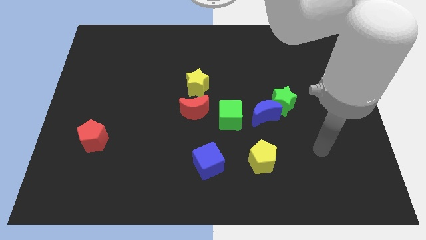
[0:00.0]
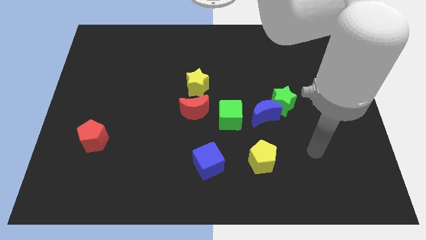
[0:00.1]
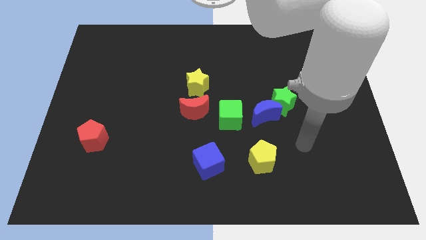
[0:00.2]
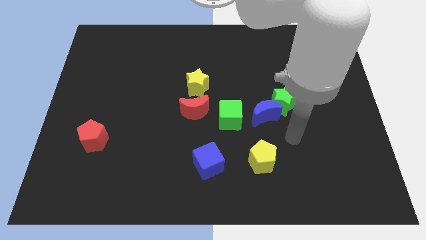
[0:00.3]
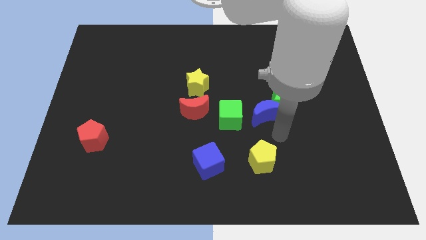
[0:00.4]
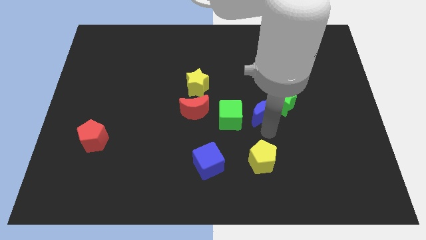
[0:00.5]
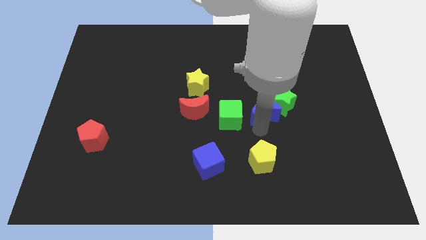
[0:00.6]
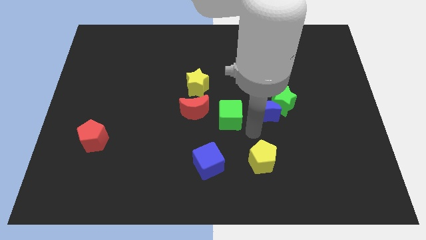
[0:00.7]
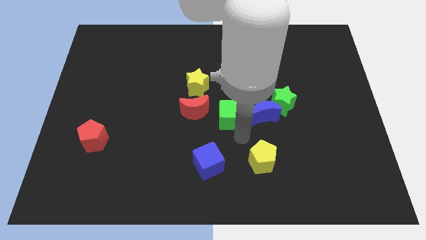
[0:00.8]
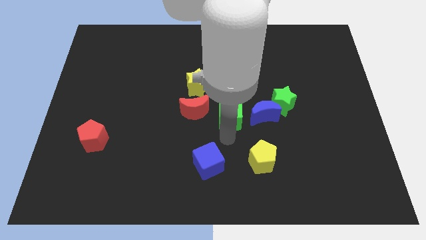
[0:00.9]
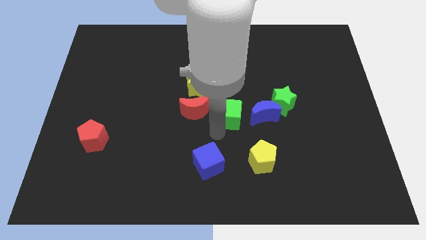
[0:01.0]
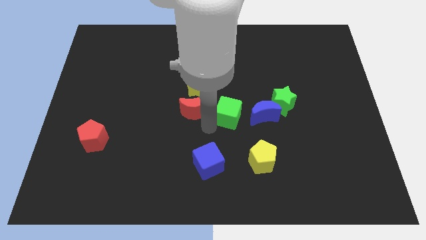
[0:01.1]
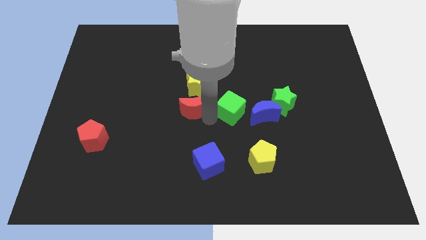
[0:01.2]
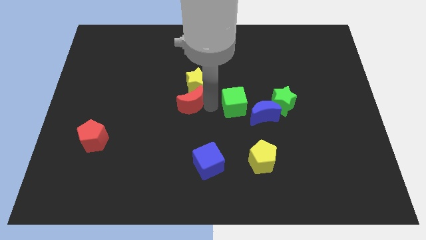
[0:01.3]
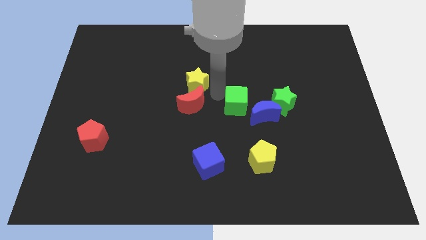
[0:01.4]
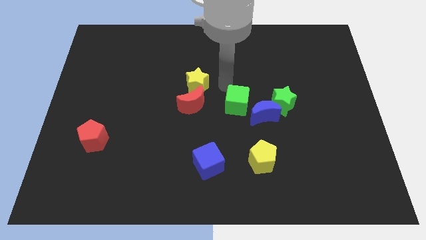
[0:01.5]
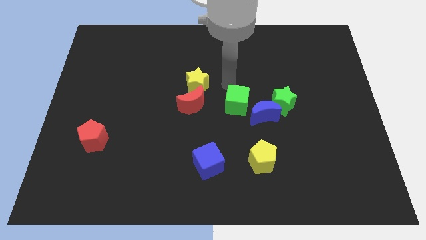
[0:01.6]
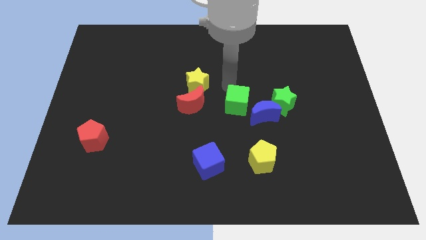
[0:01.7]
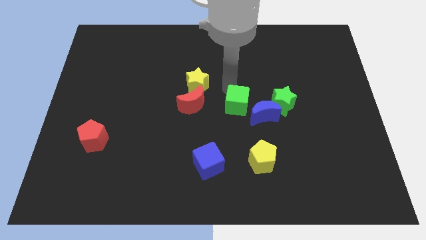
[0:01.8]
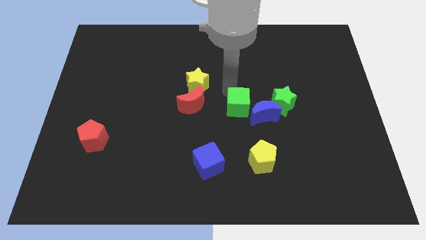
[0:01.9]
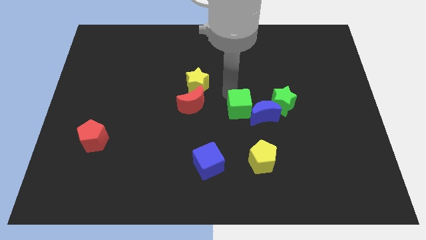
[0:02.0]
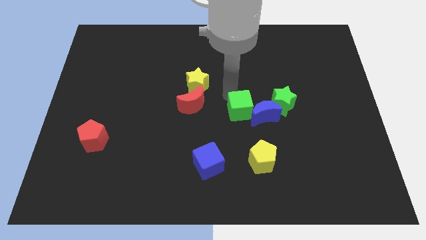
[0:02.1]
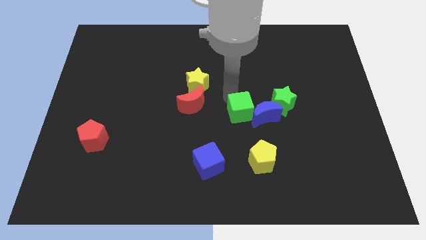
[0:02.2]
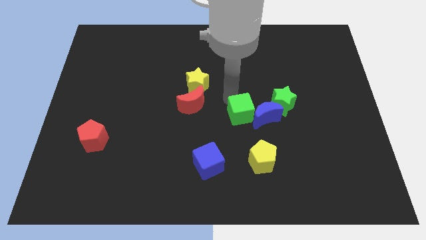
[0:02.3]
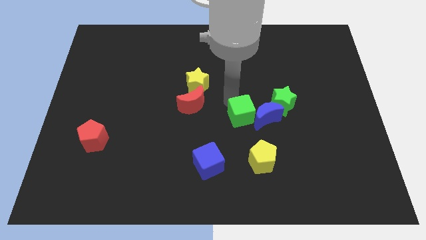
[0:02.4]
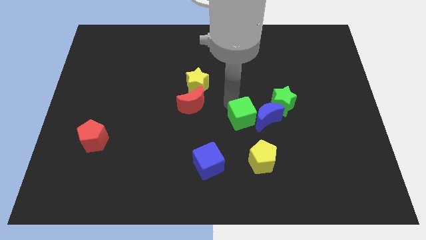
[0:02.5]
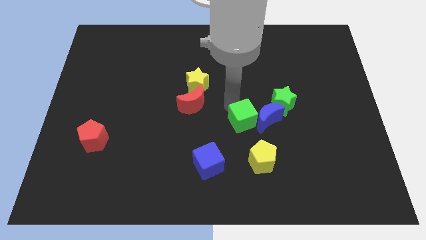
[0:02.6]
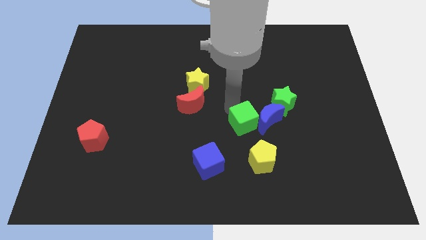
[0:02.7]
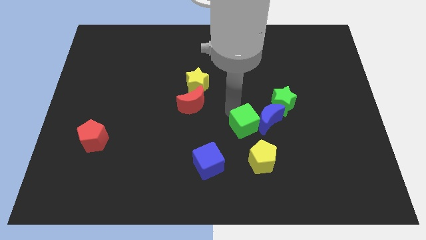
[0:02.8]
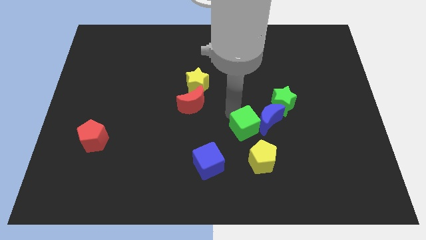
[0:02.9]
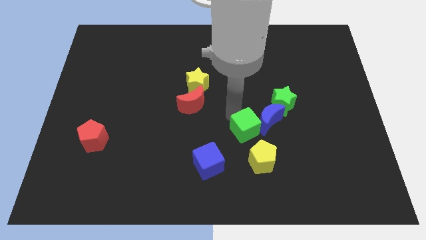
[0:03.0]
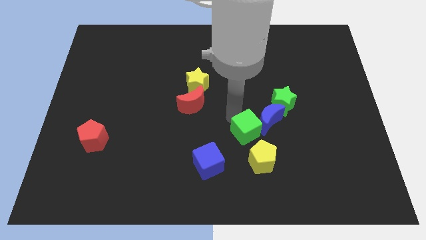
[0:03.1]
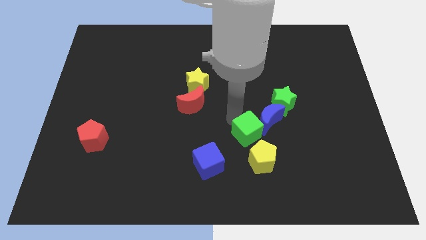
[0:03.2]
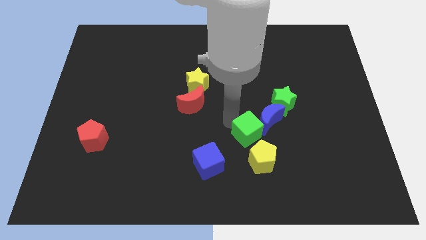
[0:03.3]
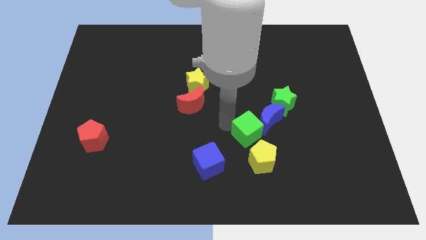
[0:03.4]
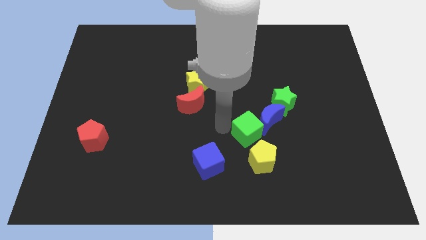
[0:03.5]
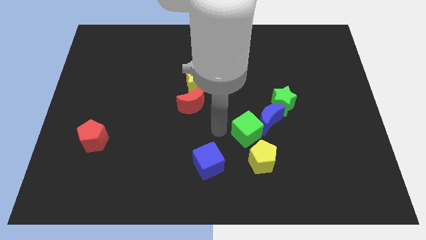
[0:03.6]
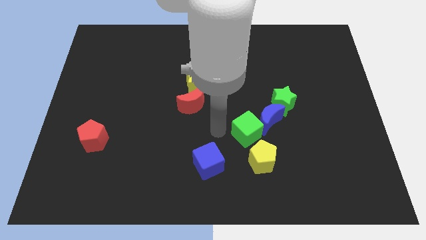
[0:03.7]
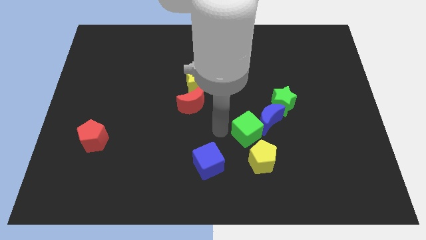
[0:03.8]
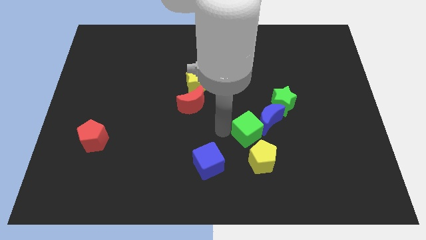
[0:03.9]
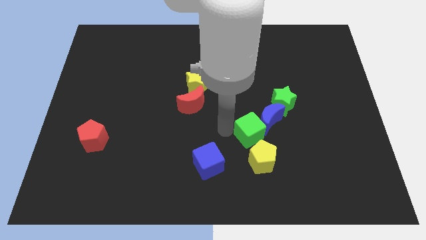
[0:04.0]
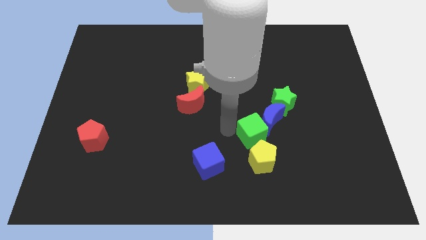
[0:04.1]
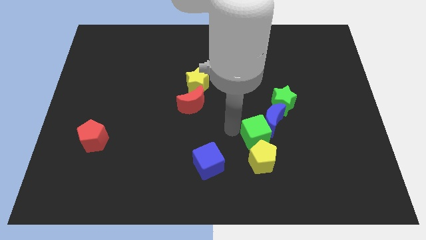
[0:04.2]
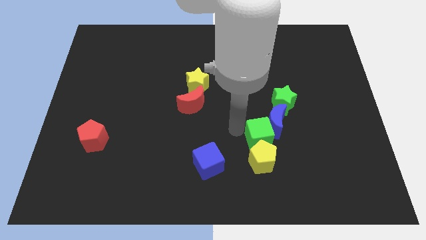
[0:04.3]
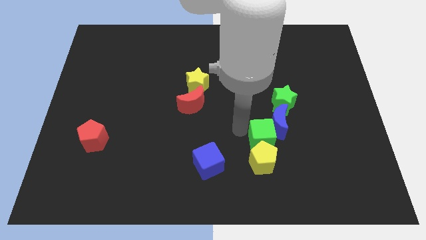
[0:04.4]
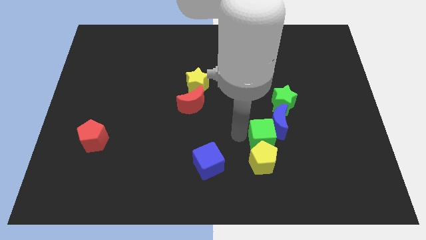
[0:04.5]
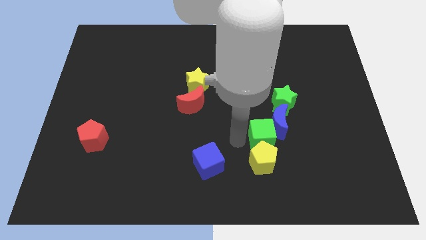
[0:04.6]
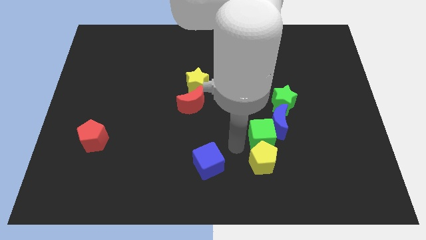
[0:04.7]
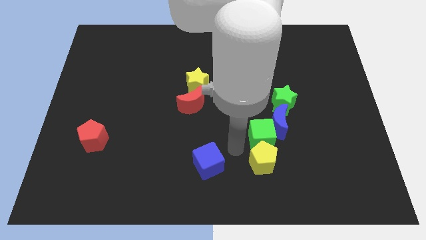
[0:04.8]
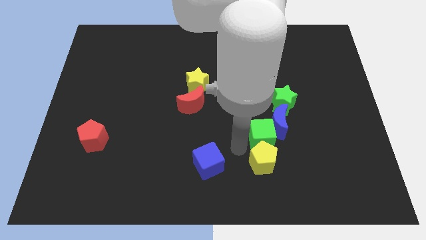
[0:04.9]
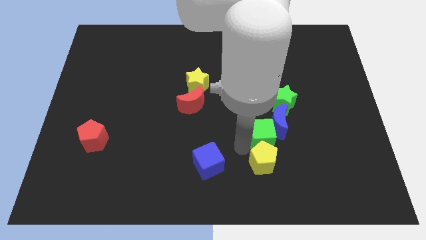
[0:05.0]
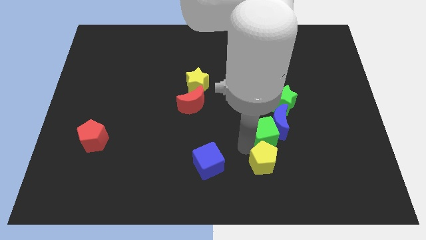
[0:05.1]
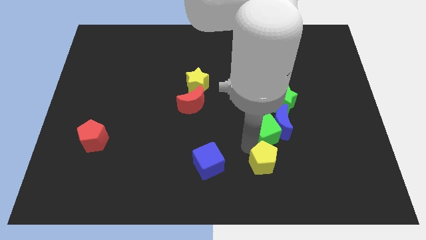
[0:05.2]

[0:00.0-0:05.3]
slightly move the green cube to the right

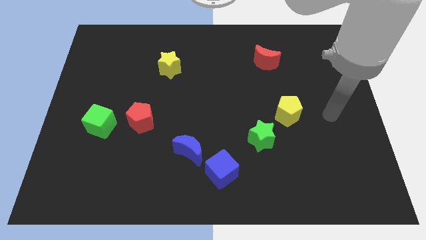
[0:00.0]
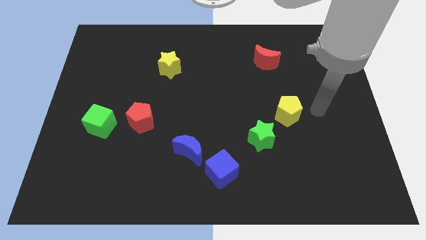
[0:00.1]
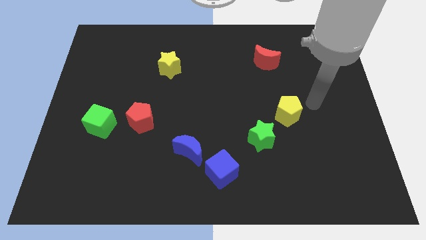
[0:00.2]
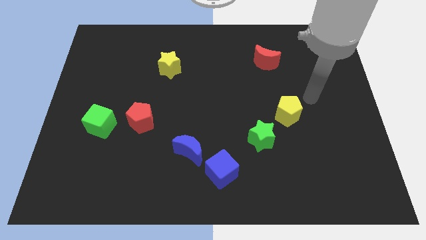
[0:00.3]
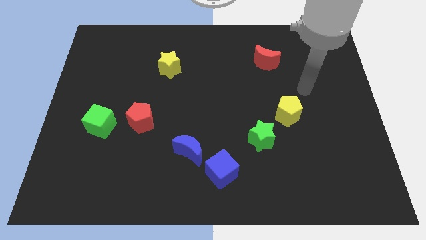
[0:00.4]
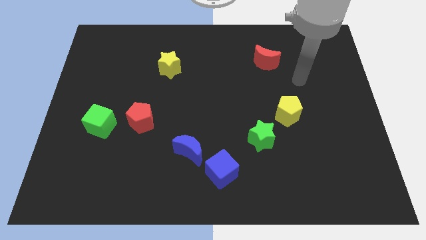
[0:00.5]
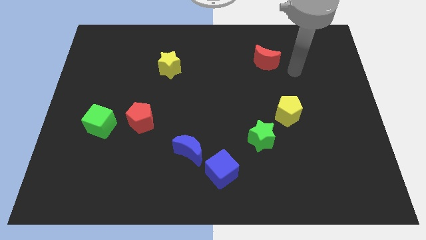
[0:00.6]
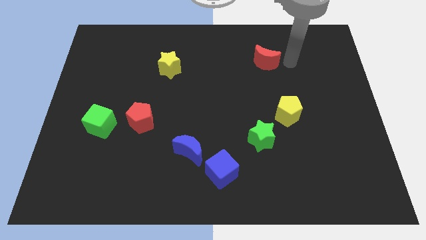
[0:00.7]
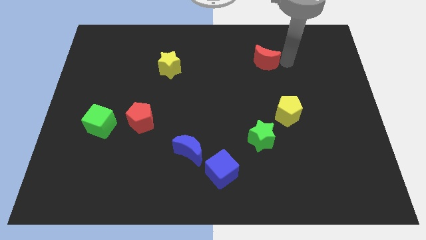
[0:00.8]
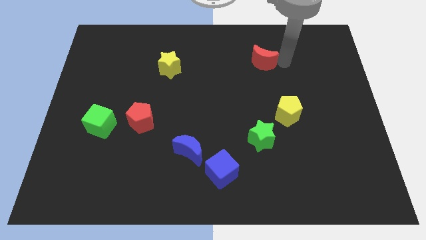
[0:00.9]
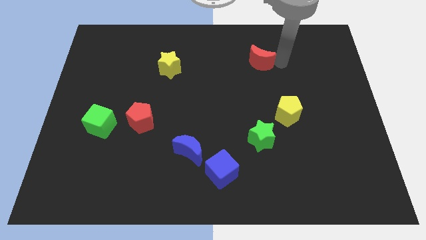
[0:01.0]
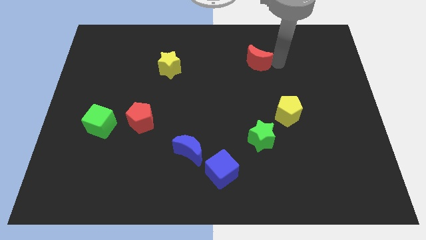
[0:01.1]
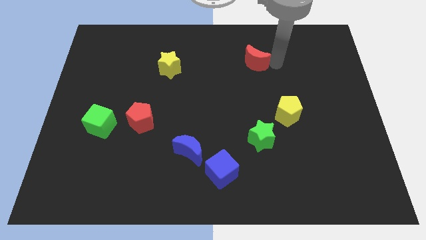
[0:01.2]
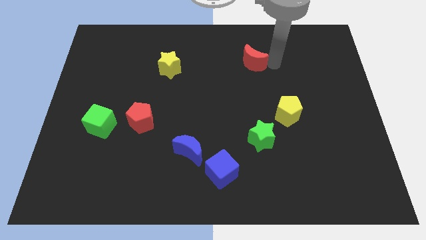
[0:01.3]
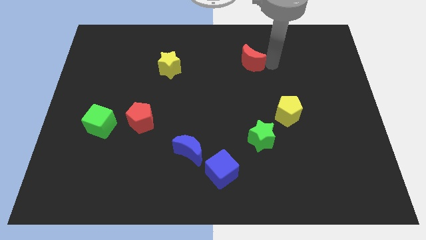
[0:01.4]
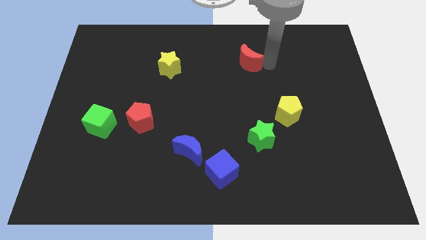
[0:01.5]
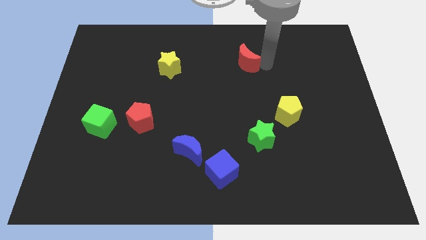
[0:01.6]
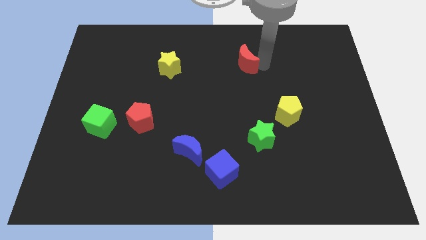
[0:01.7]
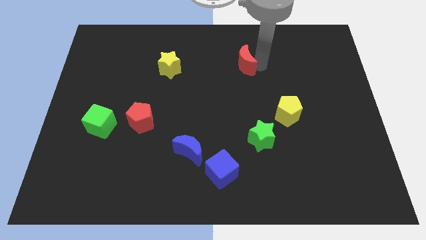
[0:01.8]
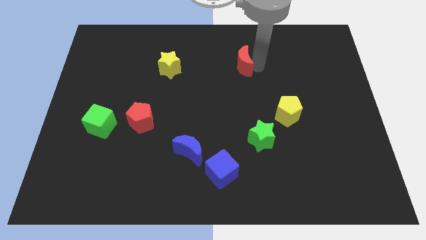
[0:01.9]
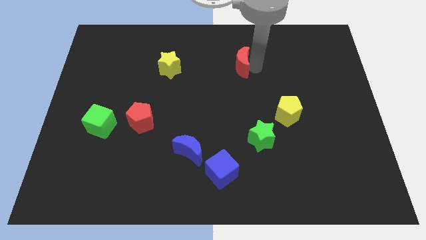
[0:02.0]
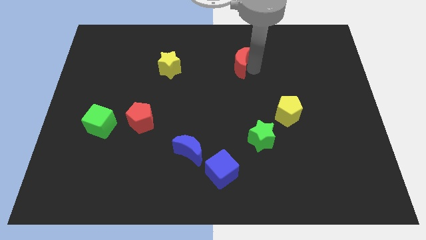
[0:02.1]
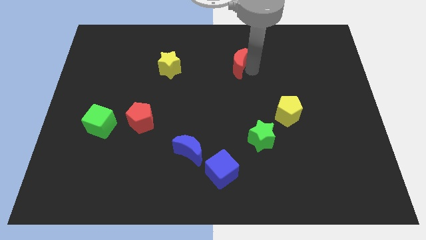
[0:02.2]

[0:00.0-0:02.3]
slide the red moon somewhat left

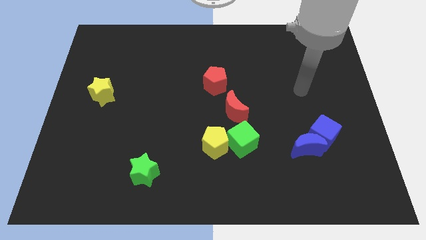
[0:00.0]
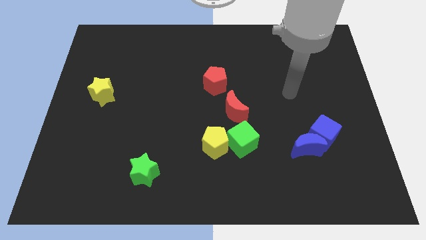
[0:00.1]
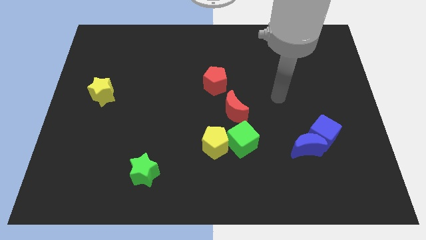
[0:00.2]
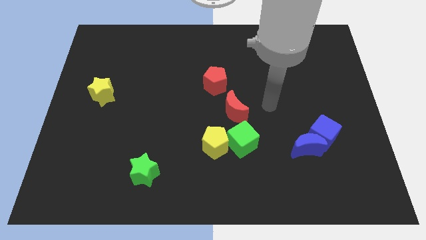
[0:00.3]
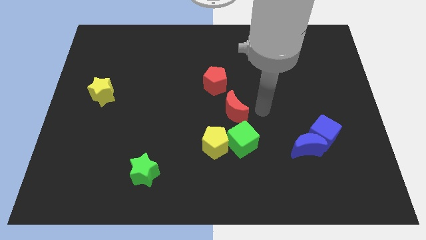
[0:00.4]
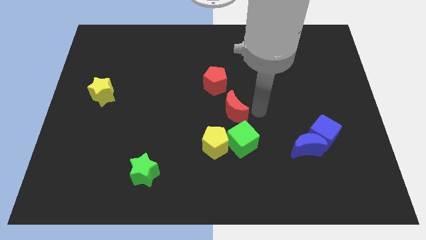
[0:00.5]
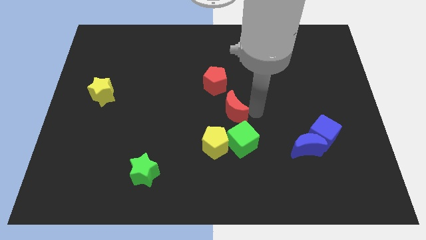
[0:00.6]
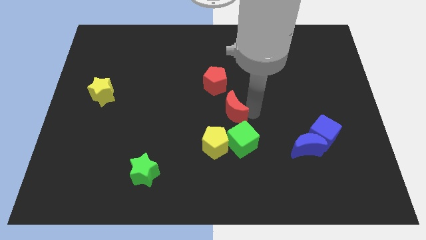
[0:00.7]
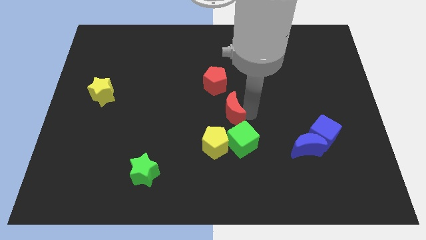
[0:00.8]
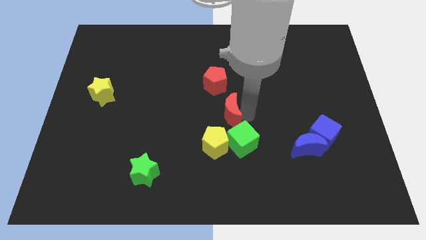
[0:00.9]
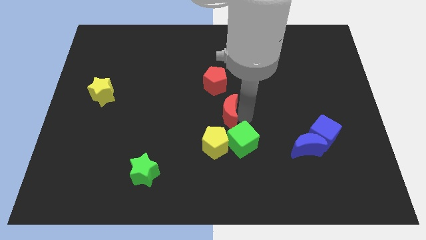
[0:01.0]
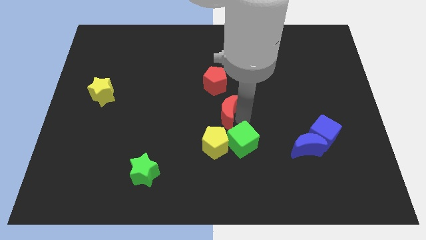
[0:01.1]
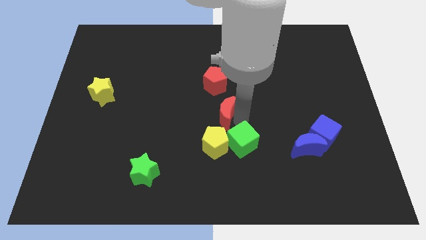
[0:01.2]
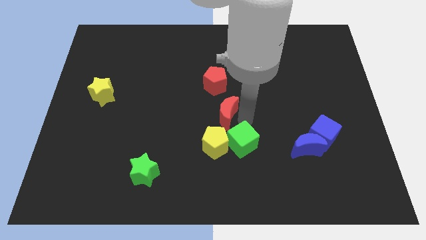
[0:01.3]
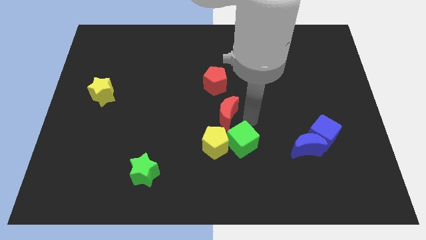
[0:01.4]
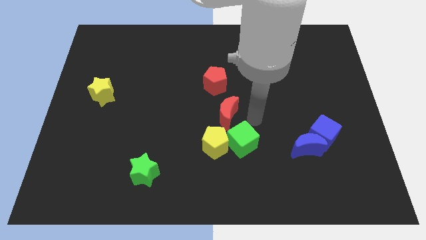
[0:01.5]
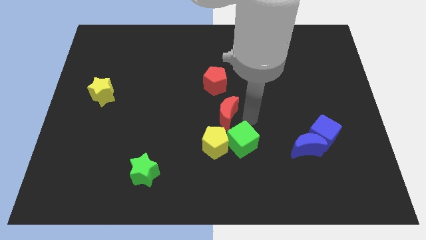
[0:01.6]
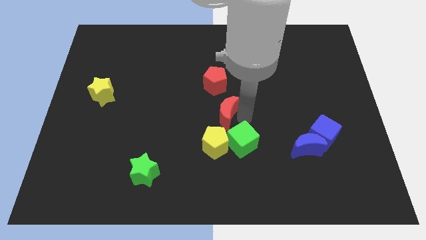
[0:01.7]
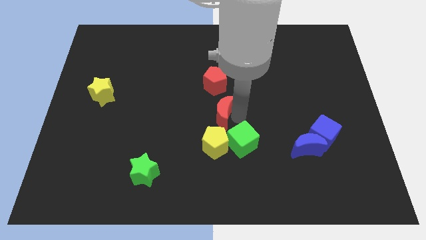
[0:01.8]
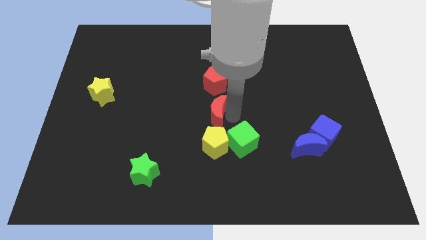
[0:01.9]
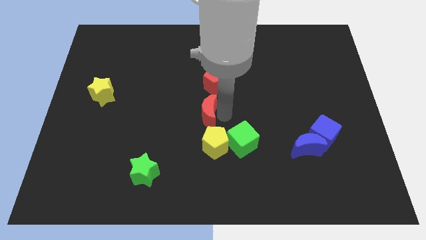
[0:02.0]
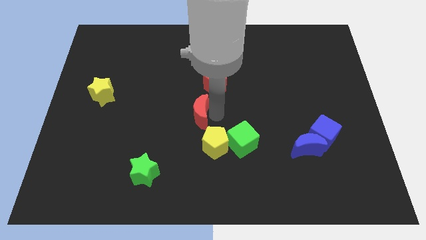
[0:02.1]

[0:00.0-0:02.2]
slide the red moon a little bit to the left
